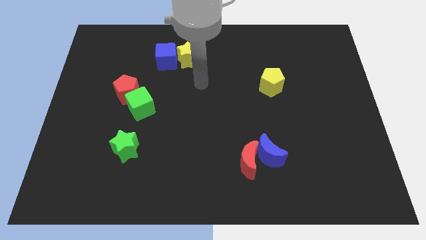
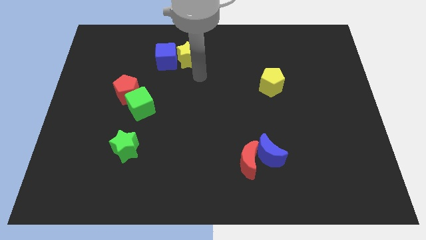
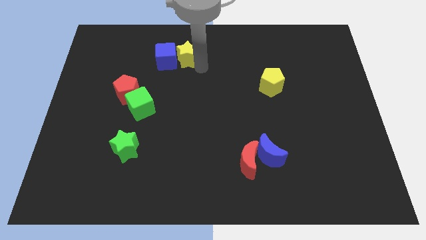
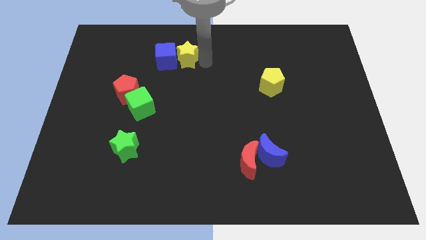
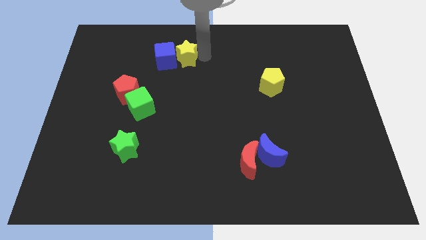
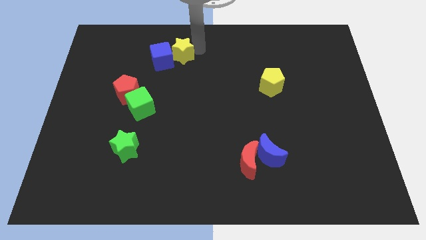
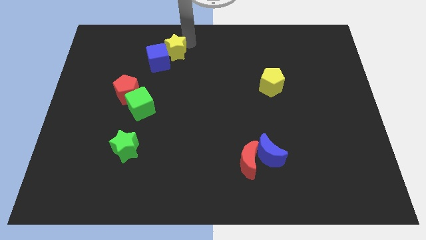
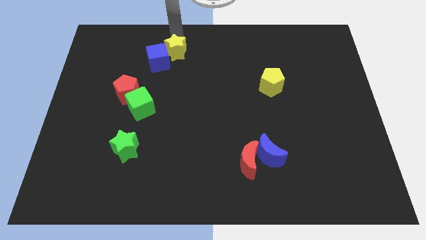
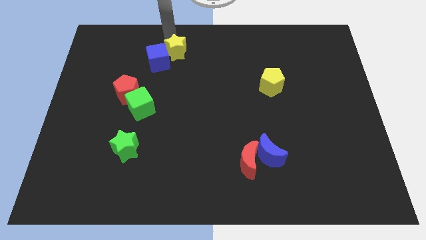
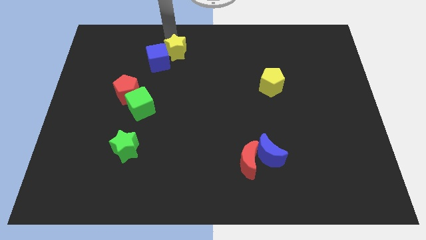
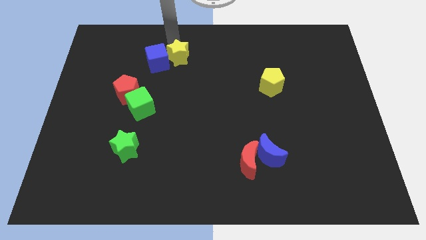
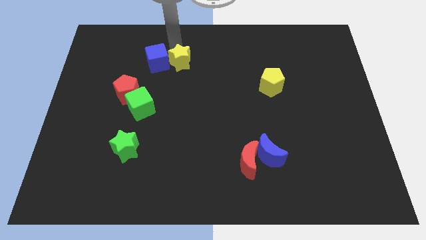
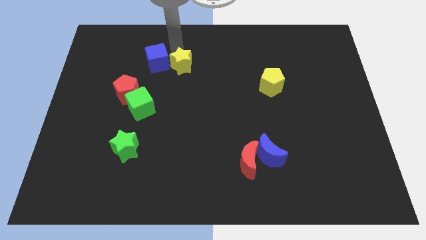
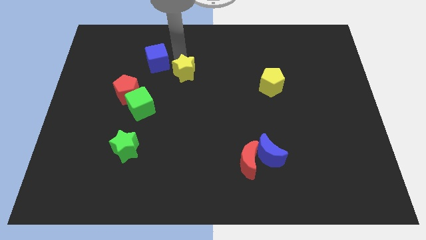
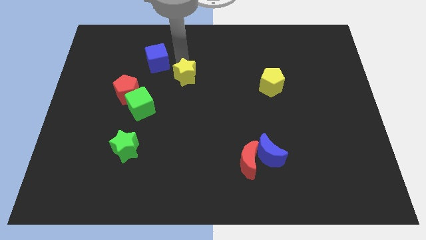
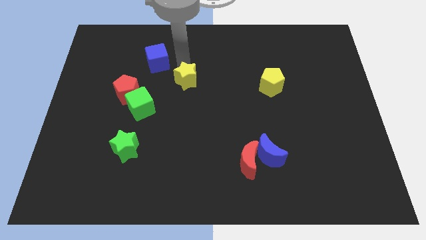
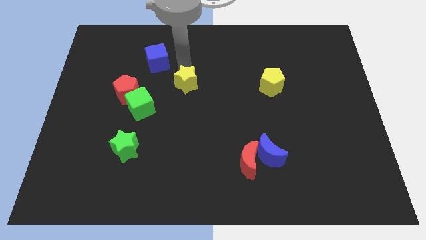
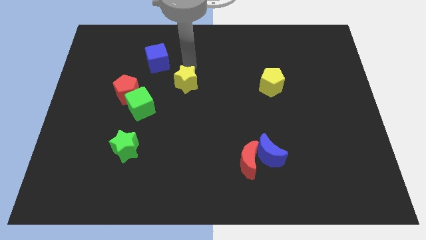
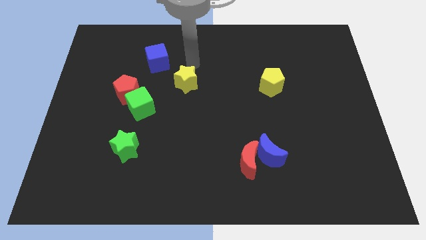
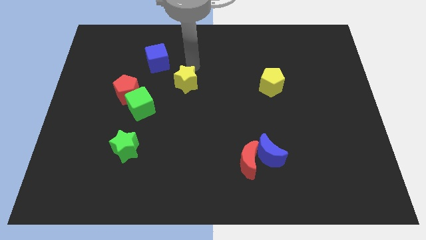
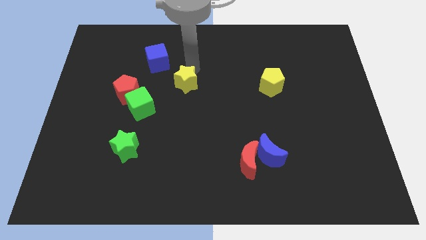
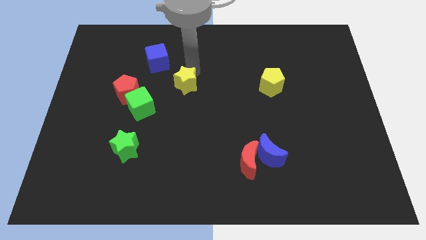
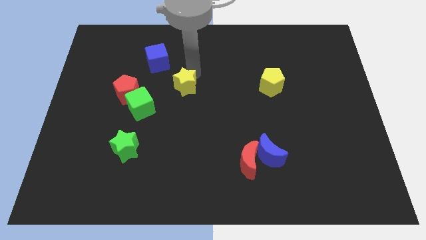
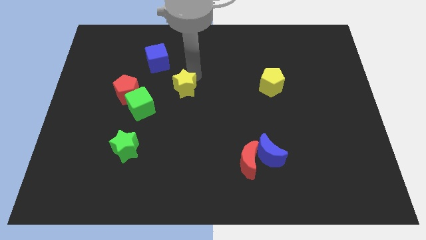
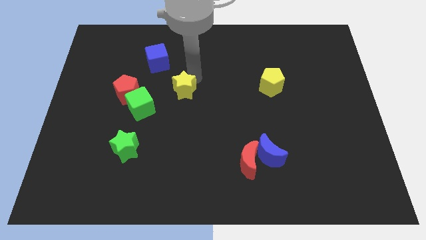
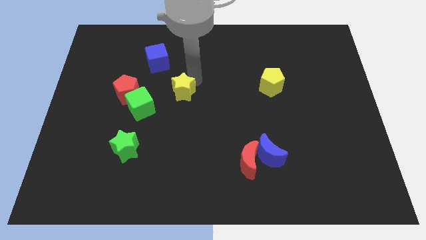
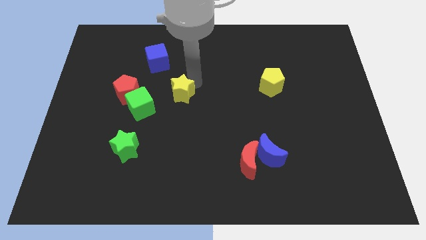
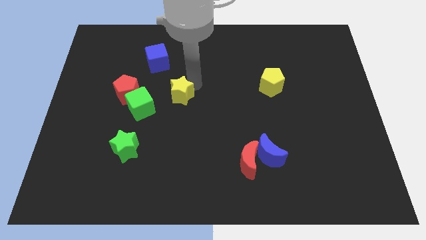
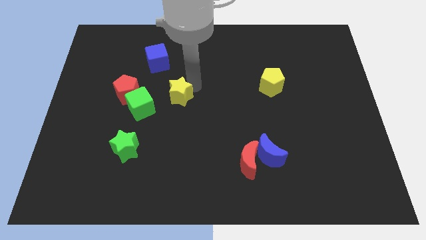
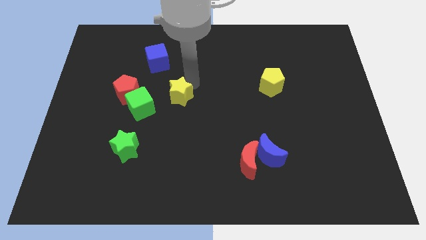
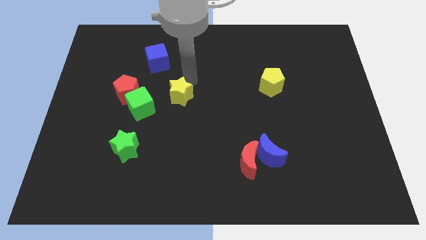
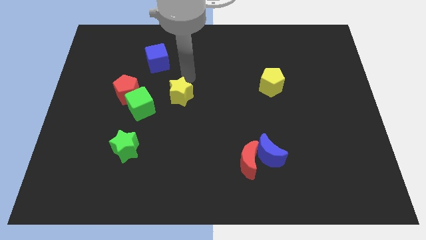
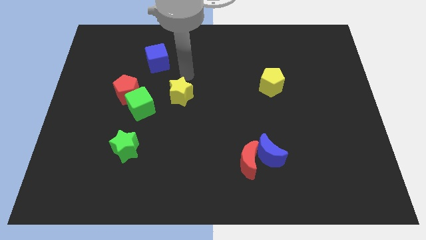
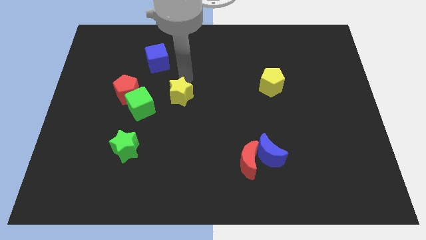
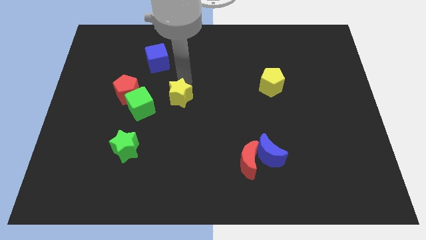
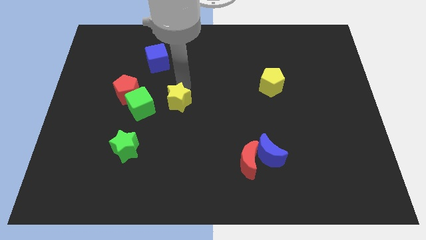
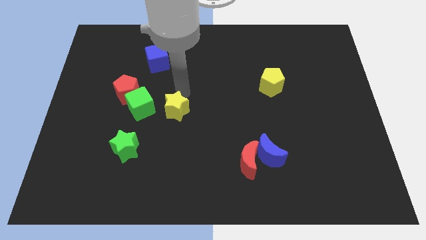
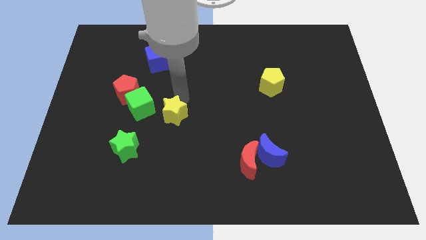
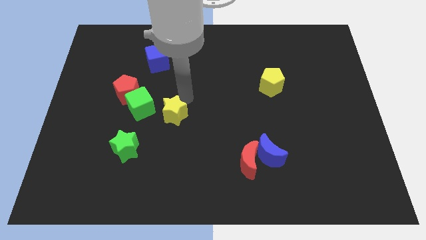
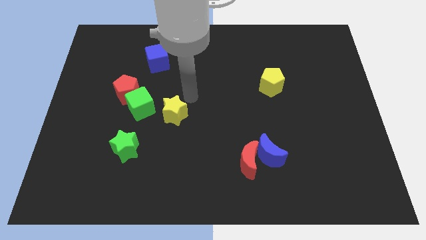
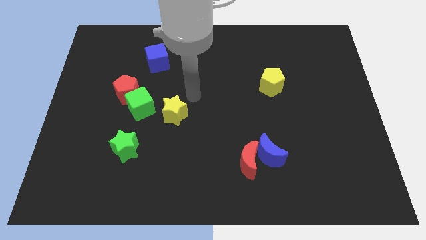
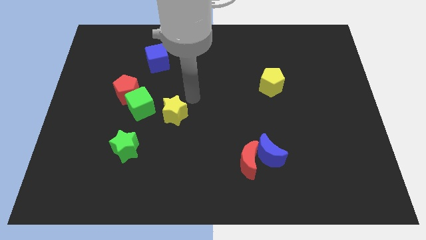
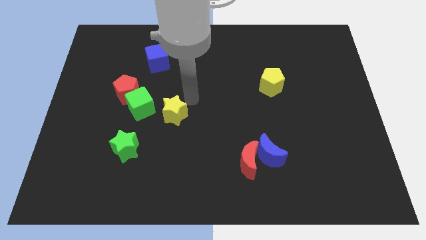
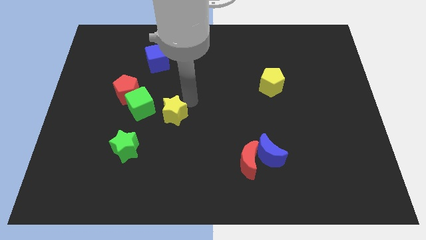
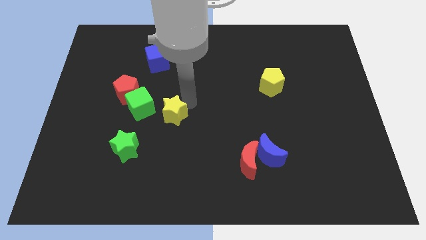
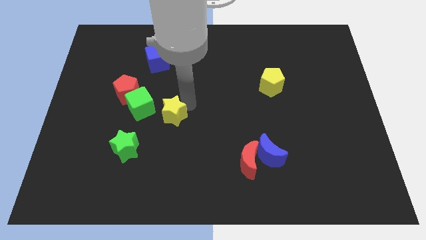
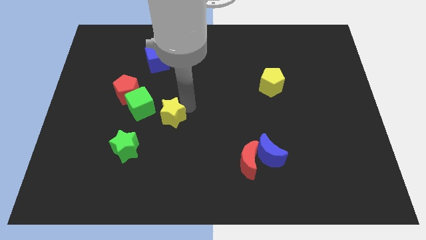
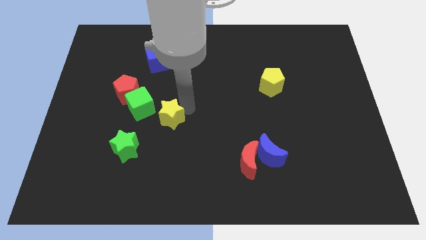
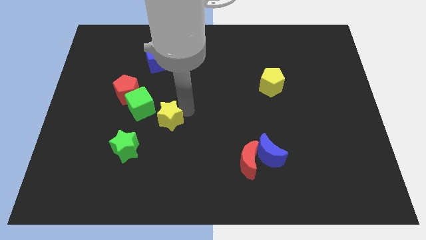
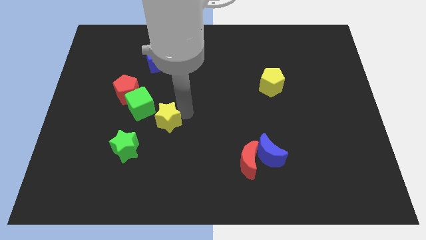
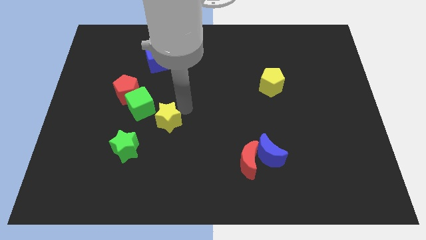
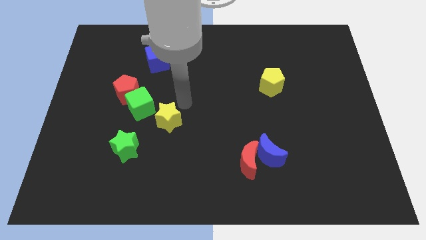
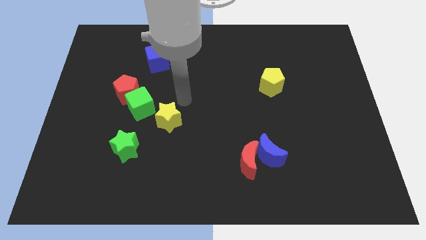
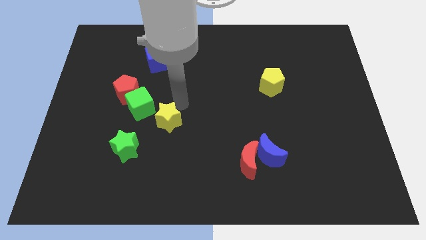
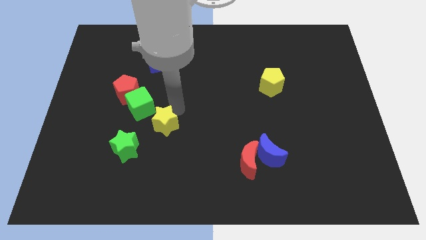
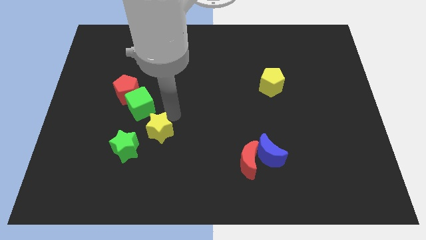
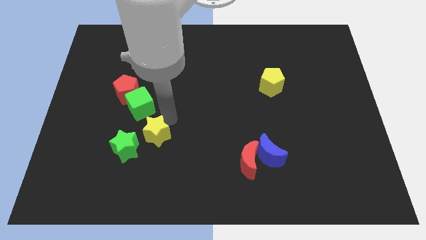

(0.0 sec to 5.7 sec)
slide the yellow star below the green cube

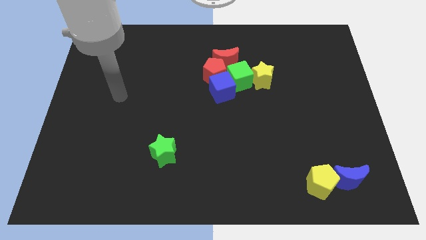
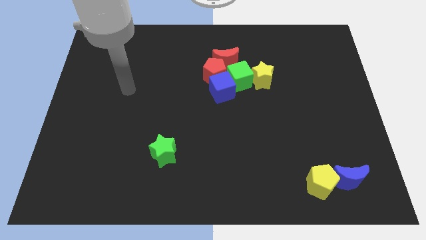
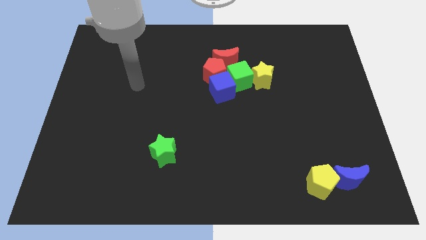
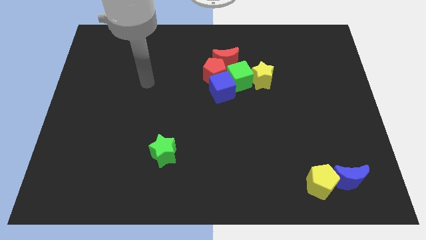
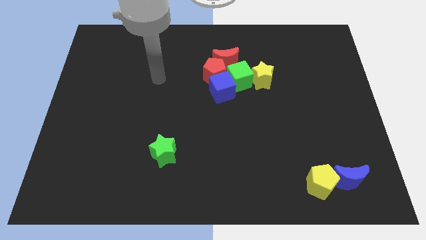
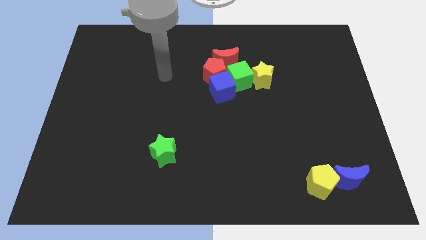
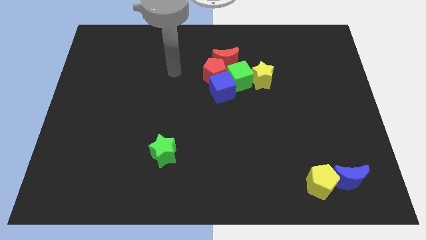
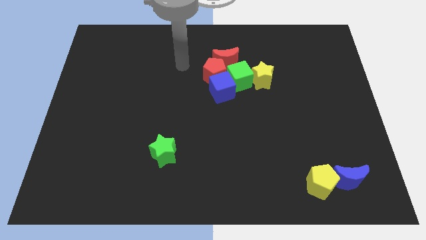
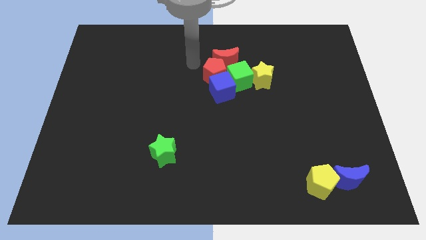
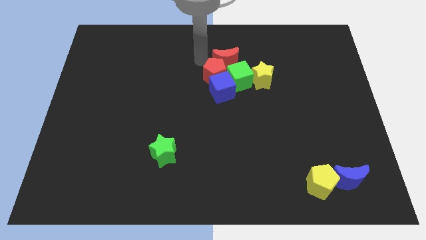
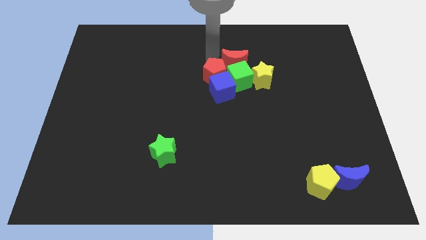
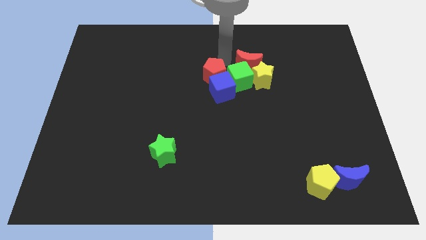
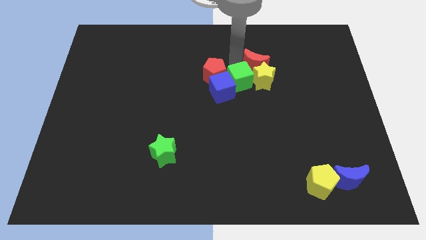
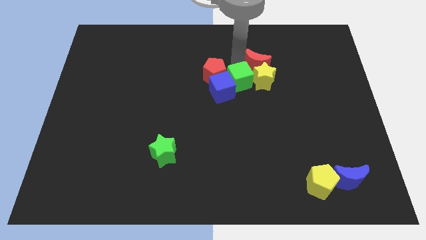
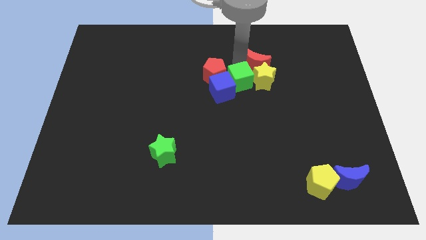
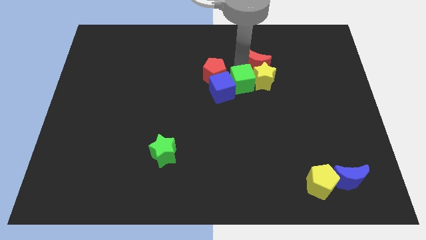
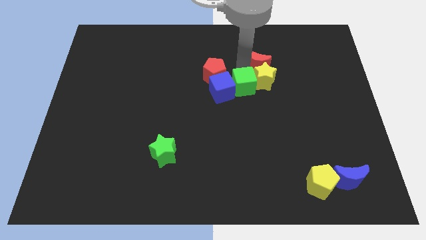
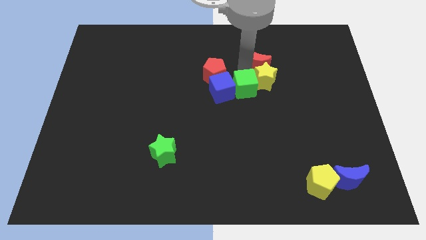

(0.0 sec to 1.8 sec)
move the green cube to the bottom right of the blue cube
